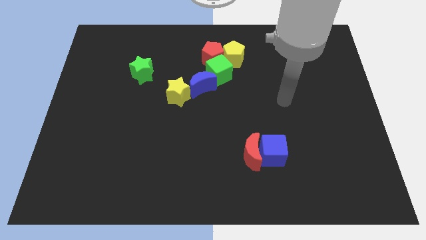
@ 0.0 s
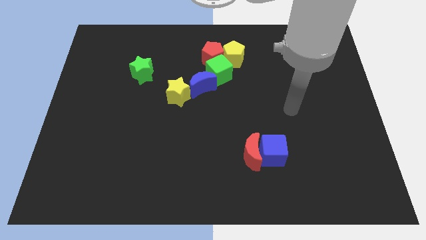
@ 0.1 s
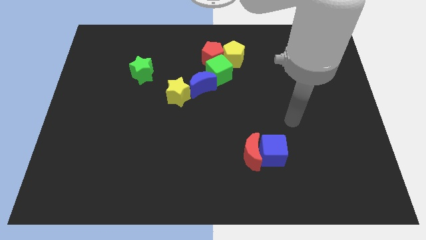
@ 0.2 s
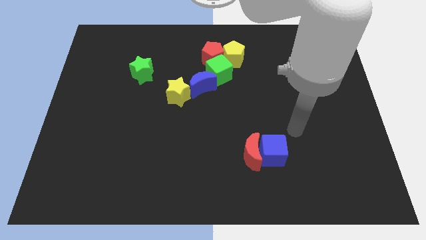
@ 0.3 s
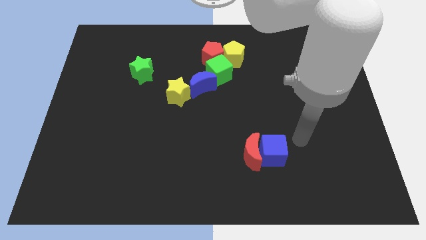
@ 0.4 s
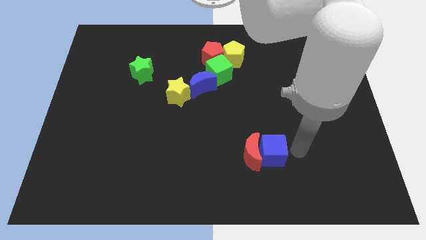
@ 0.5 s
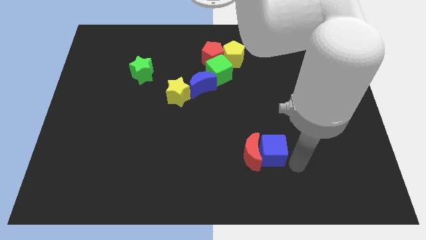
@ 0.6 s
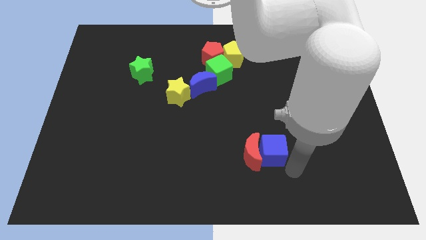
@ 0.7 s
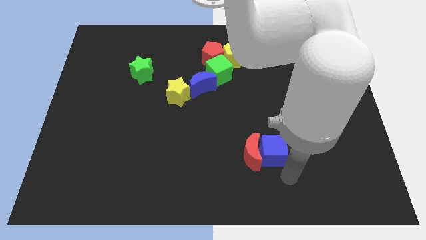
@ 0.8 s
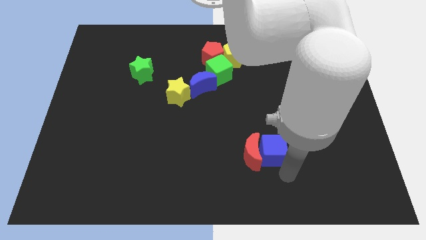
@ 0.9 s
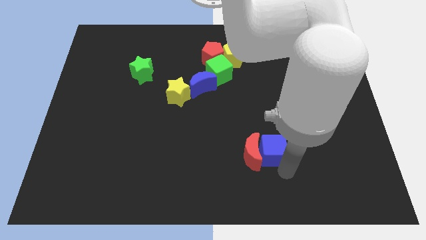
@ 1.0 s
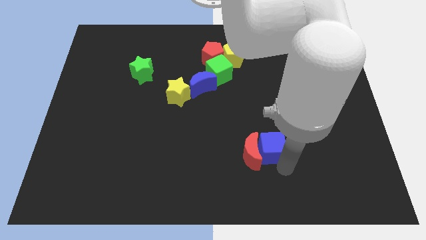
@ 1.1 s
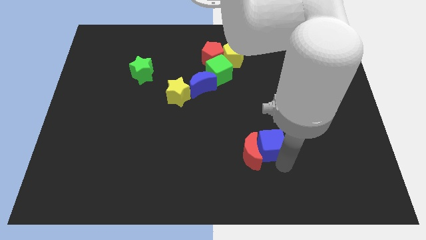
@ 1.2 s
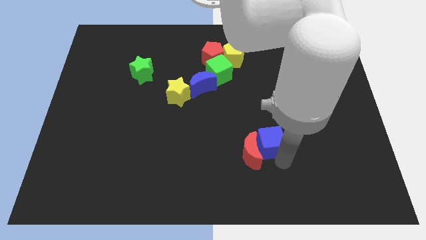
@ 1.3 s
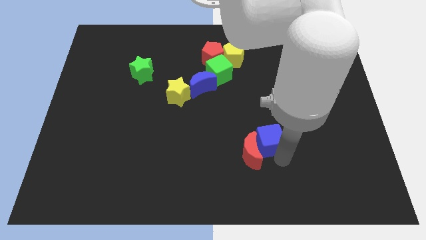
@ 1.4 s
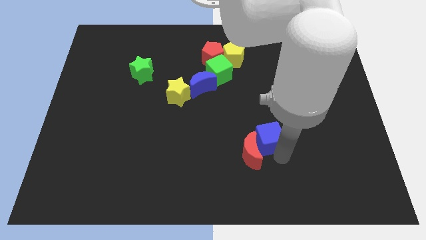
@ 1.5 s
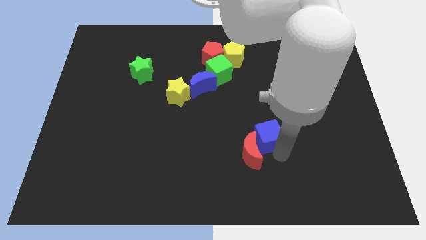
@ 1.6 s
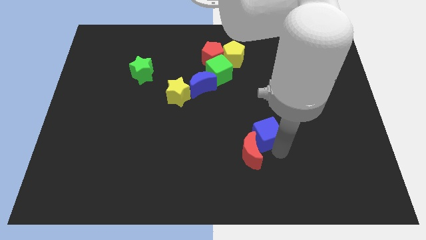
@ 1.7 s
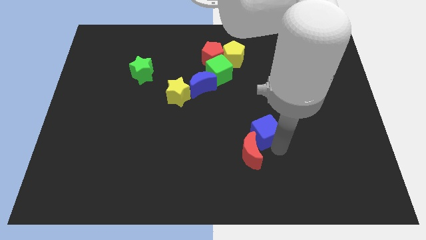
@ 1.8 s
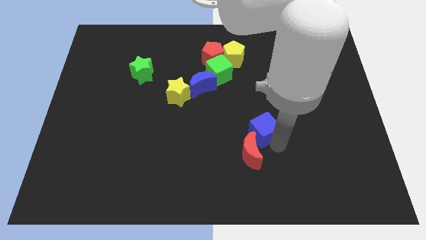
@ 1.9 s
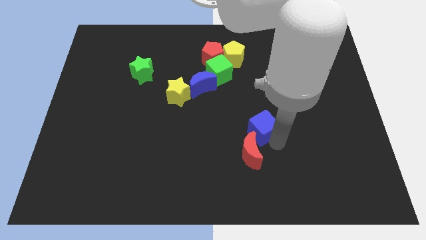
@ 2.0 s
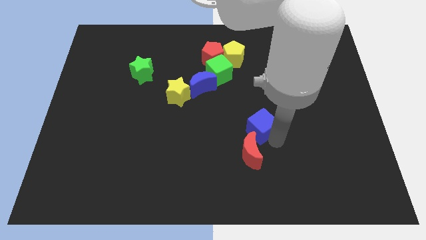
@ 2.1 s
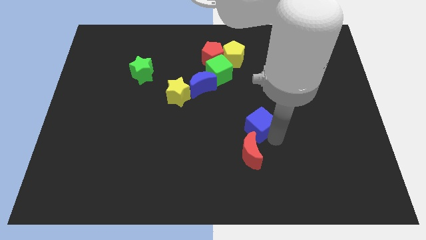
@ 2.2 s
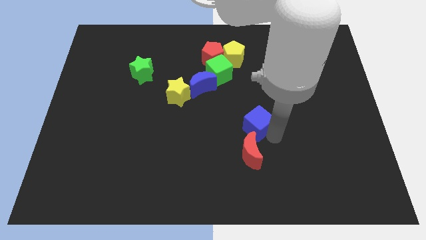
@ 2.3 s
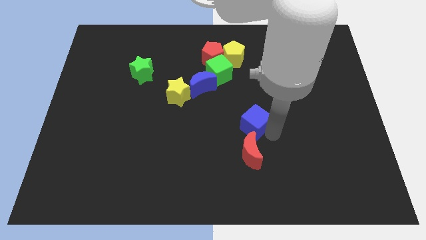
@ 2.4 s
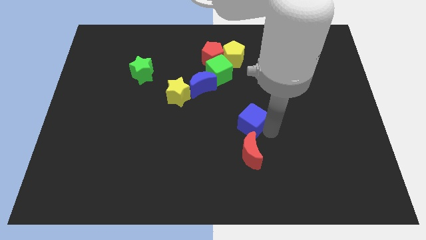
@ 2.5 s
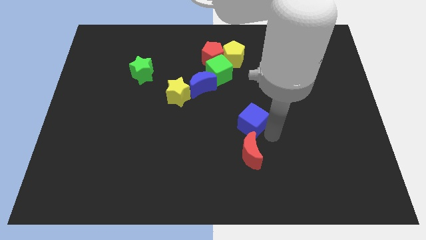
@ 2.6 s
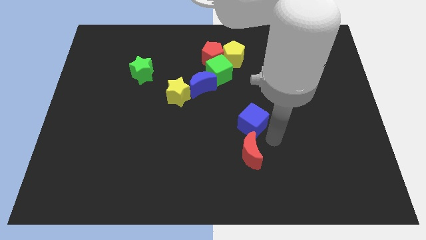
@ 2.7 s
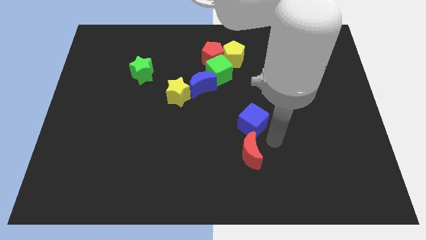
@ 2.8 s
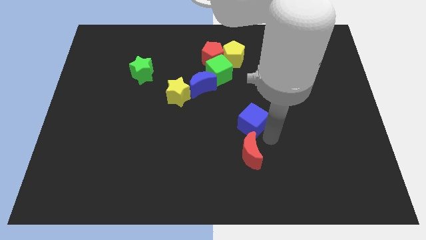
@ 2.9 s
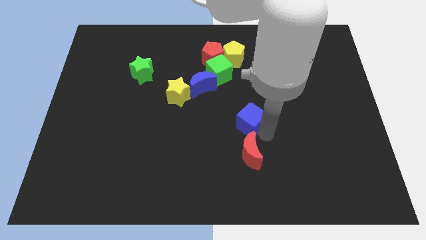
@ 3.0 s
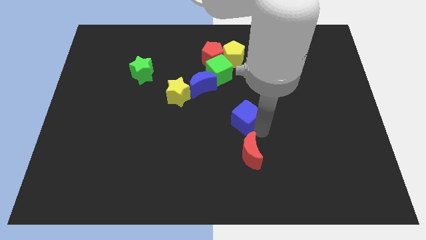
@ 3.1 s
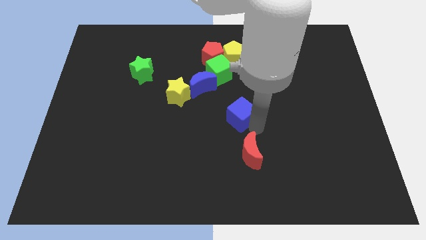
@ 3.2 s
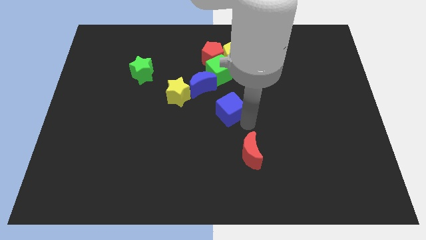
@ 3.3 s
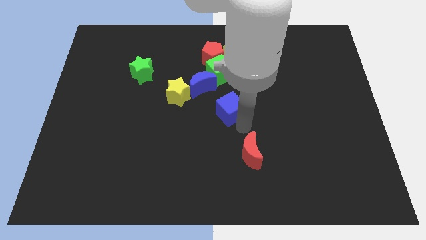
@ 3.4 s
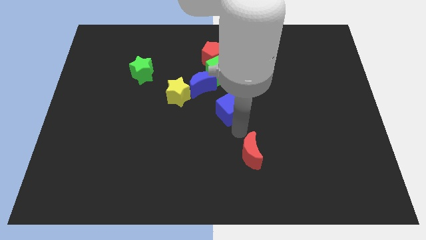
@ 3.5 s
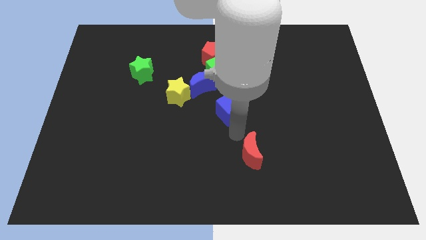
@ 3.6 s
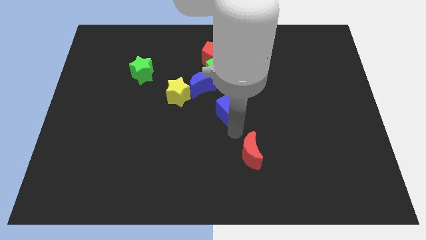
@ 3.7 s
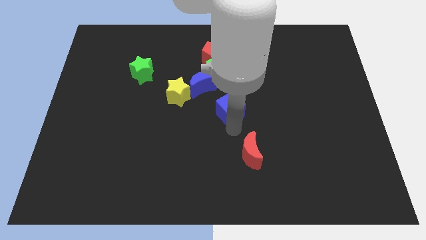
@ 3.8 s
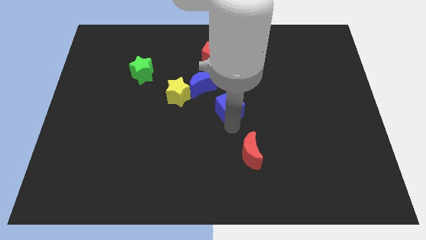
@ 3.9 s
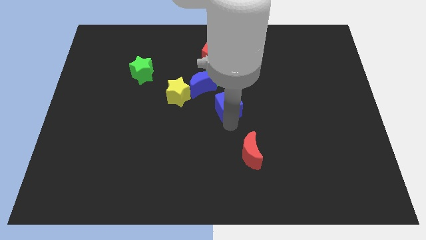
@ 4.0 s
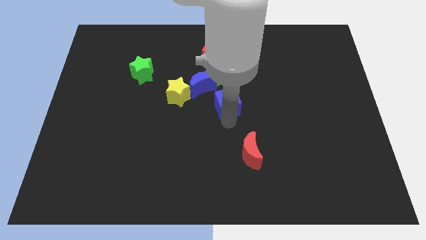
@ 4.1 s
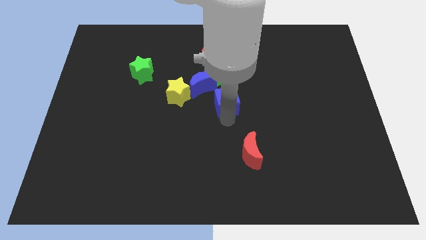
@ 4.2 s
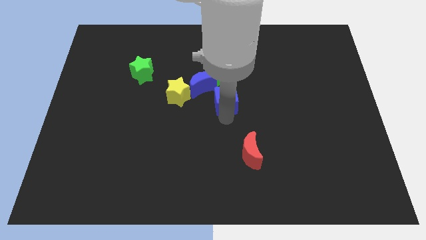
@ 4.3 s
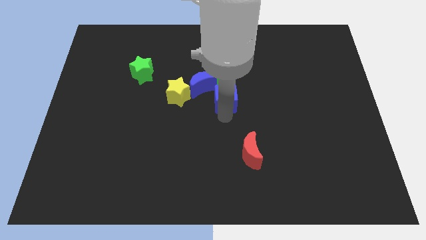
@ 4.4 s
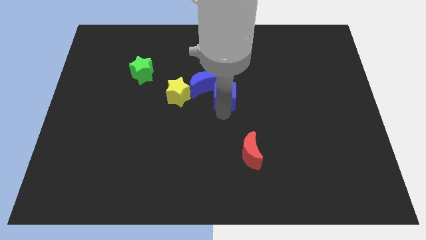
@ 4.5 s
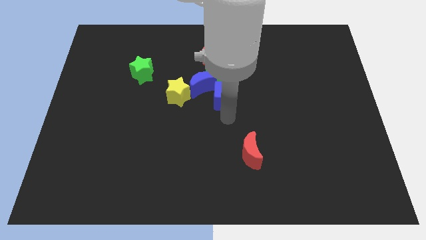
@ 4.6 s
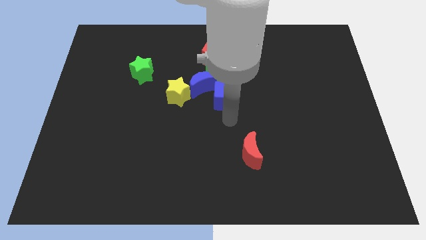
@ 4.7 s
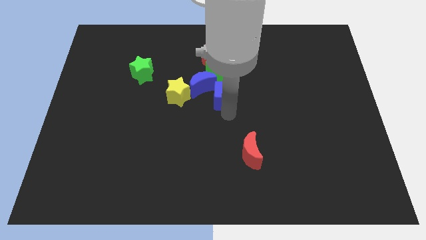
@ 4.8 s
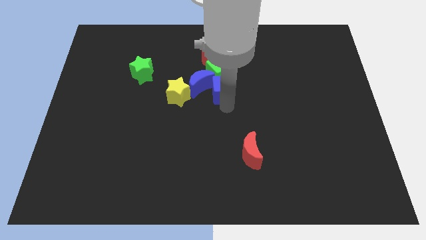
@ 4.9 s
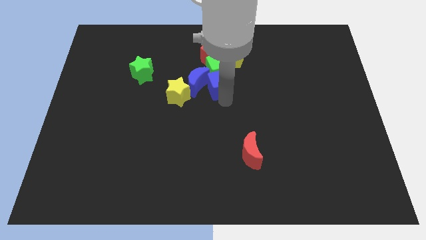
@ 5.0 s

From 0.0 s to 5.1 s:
put the blue cube close to the green cube

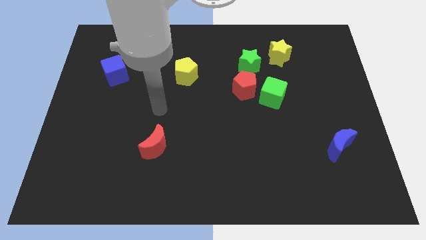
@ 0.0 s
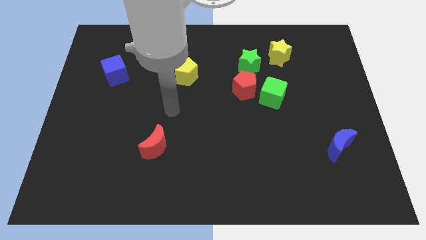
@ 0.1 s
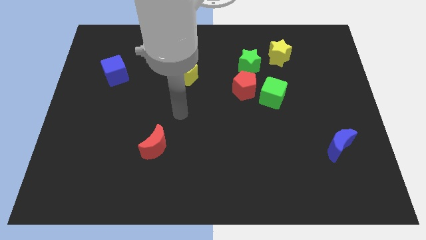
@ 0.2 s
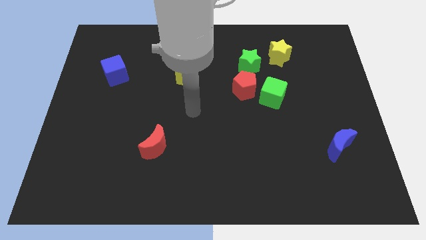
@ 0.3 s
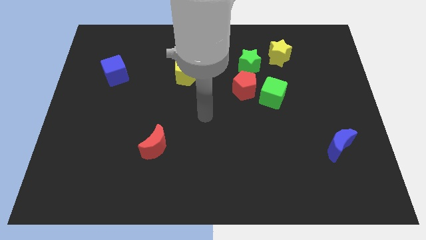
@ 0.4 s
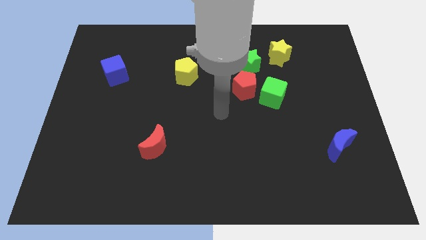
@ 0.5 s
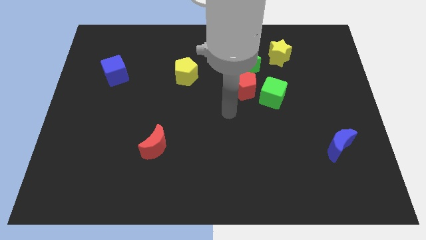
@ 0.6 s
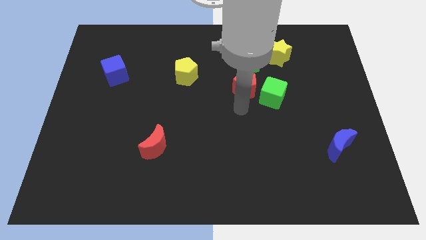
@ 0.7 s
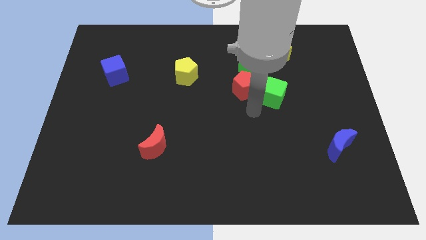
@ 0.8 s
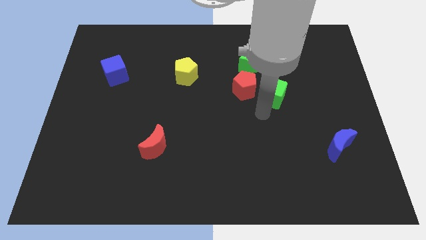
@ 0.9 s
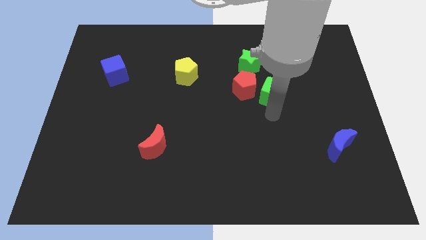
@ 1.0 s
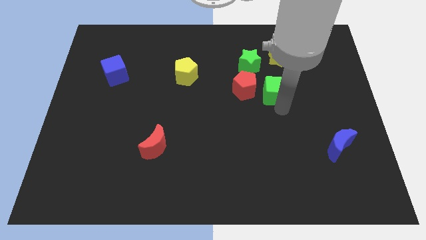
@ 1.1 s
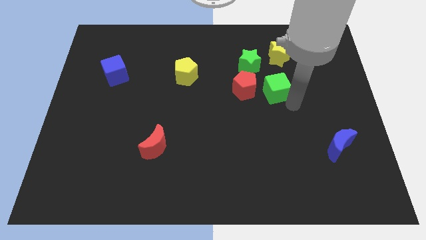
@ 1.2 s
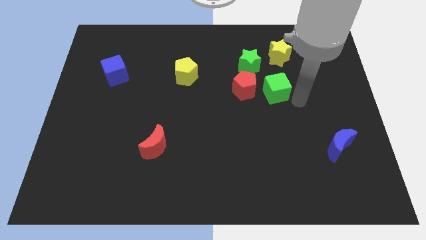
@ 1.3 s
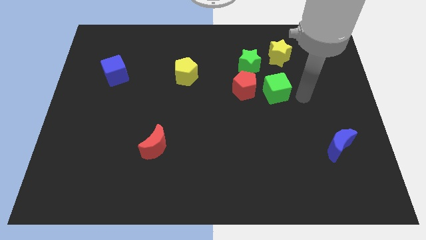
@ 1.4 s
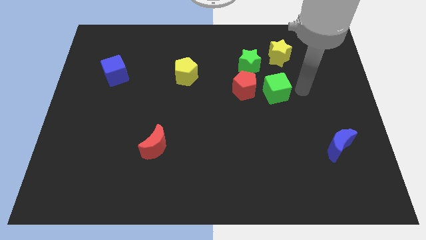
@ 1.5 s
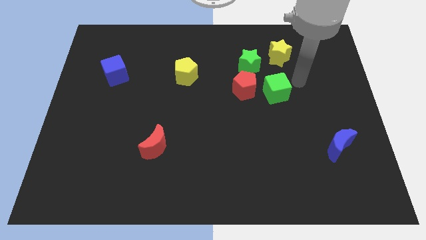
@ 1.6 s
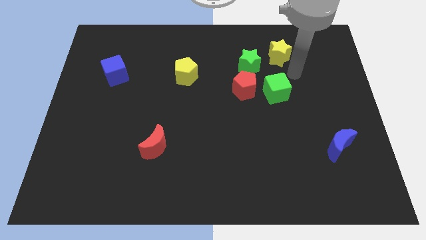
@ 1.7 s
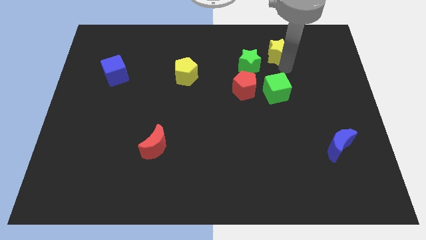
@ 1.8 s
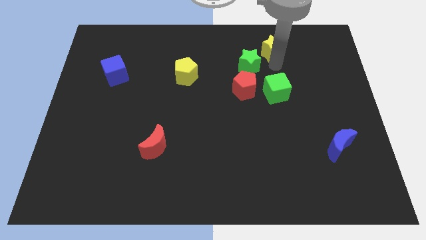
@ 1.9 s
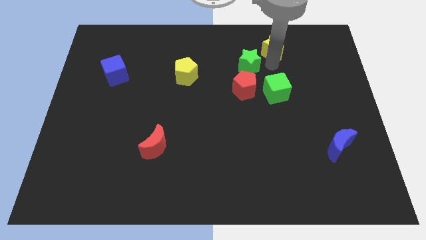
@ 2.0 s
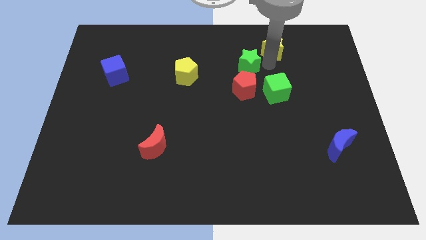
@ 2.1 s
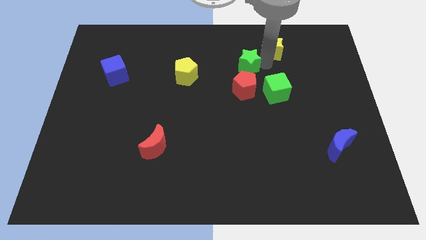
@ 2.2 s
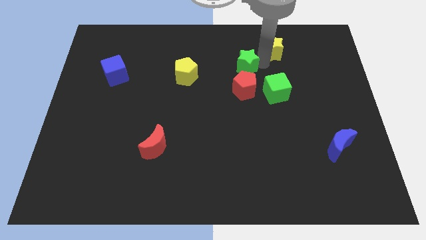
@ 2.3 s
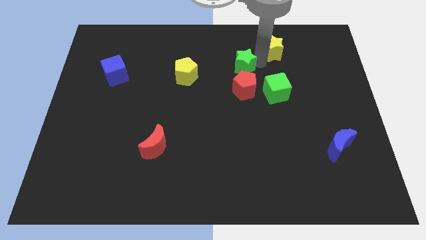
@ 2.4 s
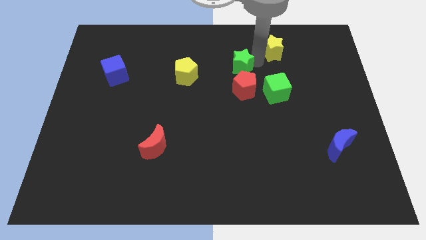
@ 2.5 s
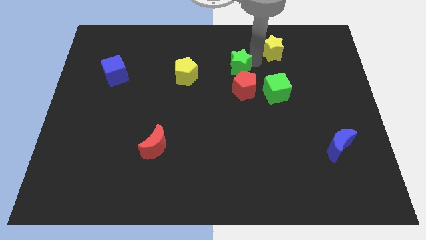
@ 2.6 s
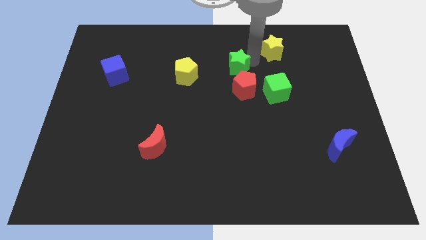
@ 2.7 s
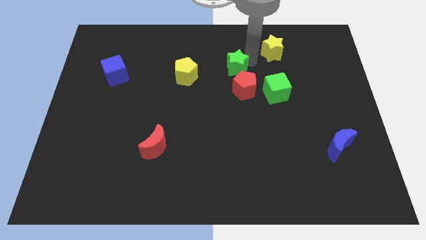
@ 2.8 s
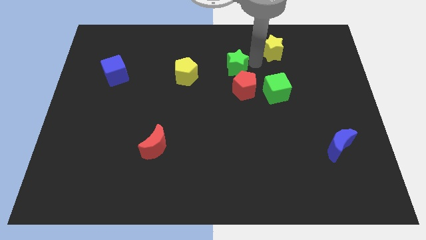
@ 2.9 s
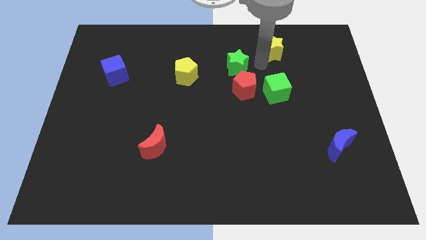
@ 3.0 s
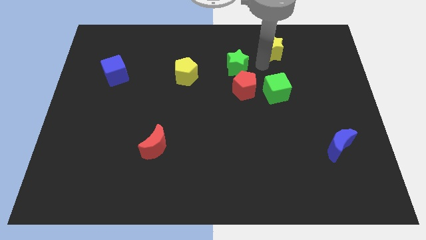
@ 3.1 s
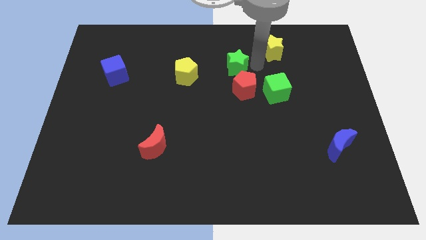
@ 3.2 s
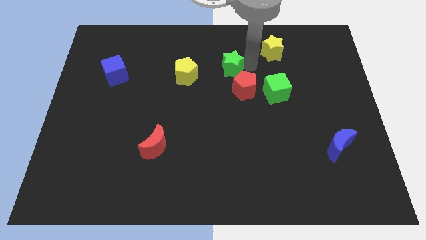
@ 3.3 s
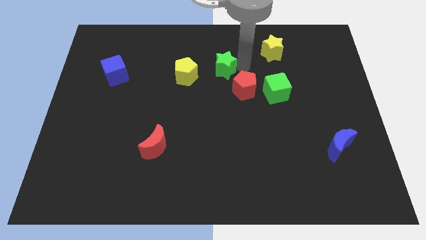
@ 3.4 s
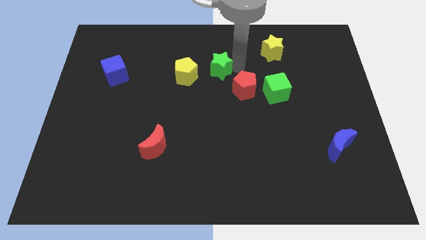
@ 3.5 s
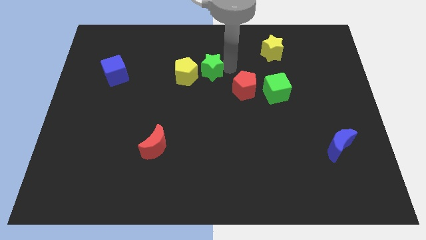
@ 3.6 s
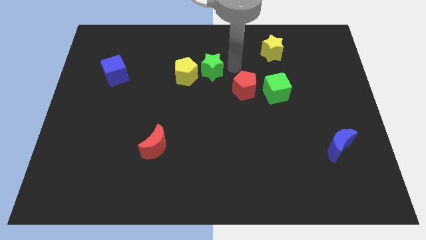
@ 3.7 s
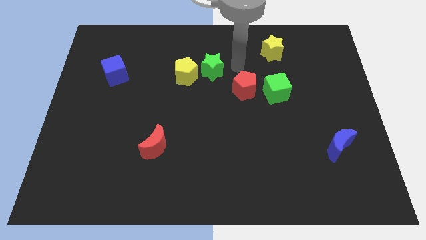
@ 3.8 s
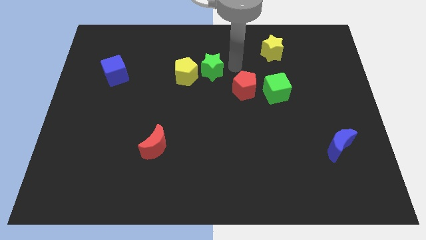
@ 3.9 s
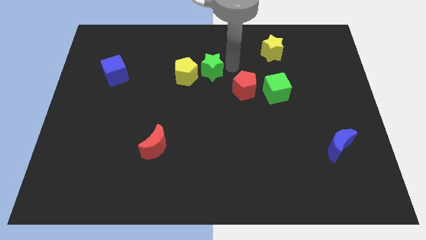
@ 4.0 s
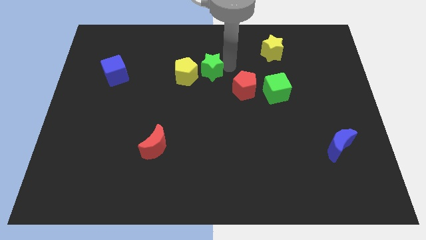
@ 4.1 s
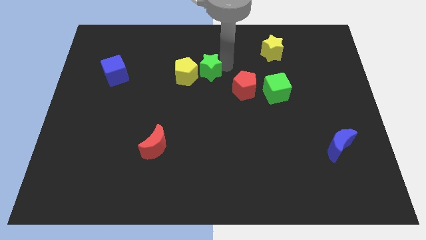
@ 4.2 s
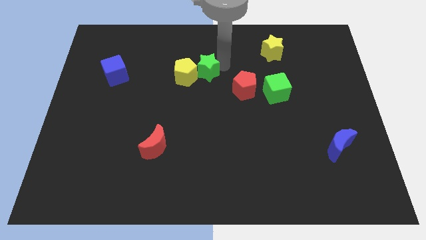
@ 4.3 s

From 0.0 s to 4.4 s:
put the green star close to the yellow pentagon
